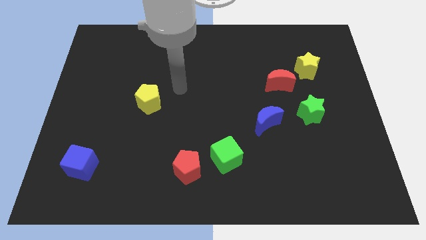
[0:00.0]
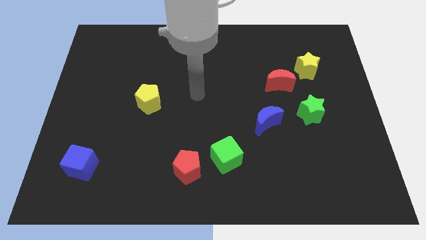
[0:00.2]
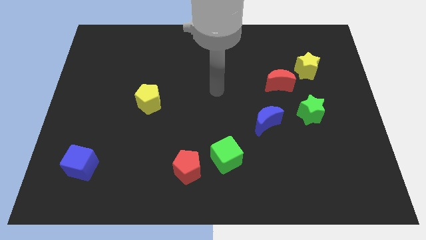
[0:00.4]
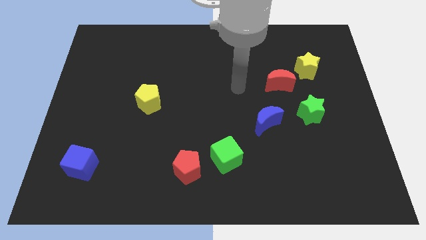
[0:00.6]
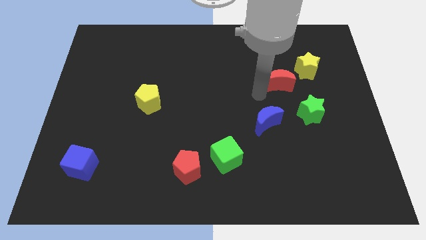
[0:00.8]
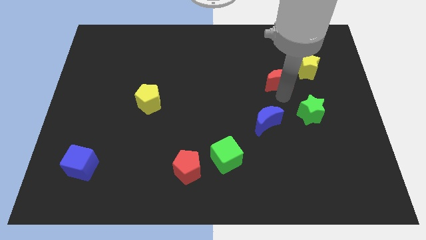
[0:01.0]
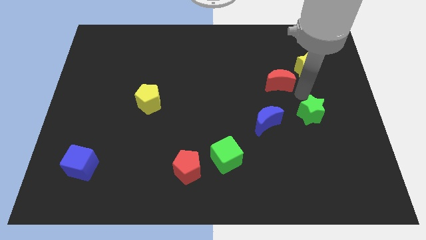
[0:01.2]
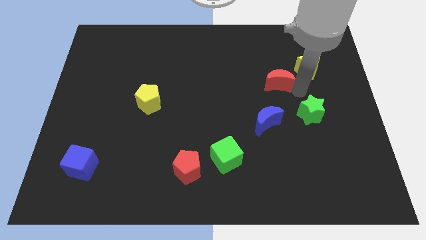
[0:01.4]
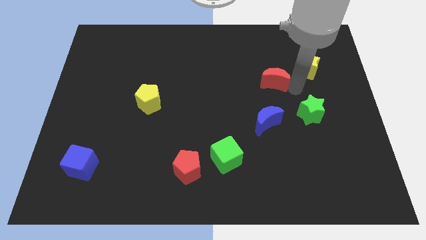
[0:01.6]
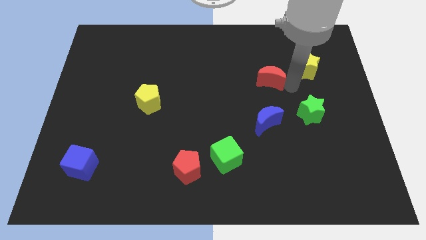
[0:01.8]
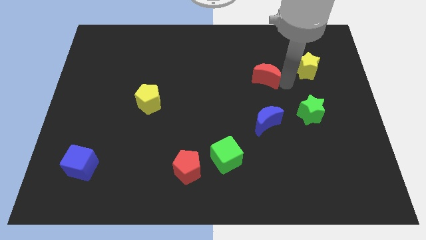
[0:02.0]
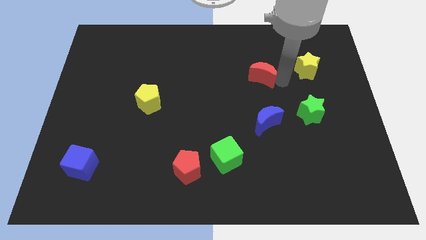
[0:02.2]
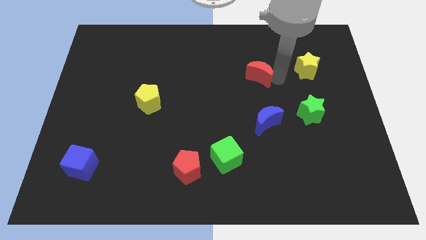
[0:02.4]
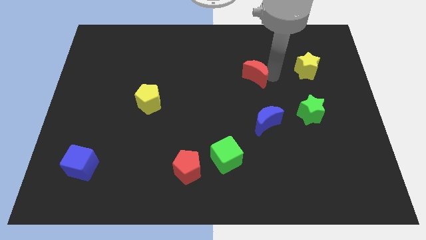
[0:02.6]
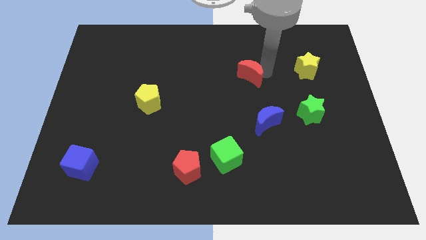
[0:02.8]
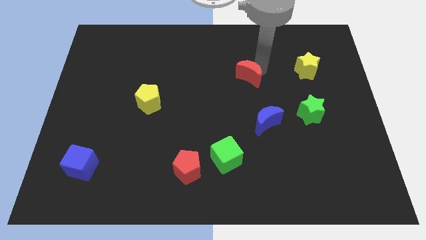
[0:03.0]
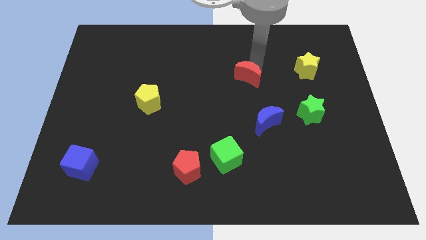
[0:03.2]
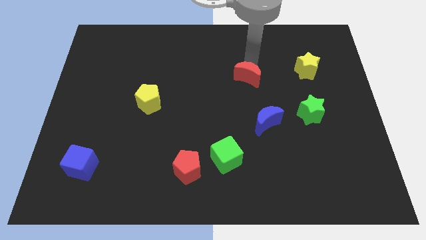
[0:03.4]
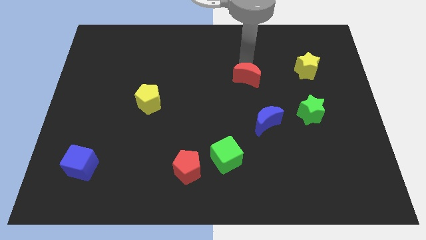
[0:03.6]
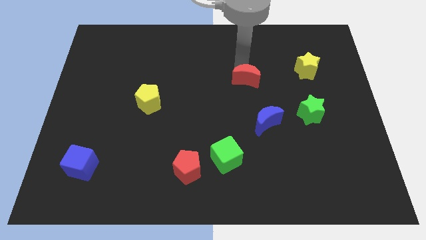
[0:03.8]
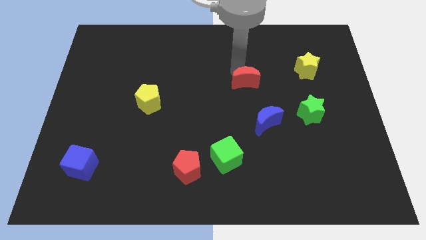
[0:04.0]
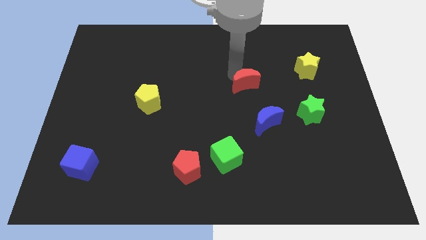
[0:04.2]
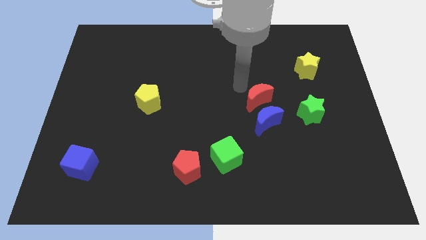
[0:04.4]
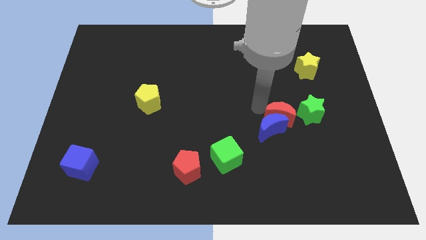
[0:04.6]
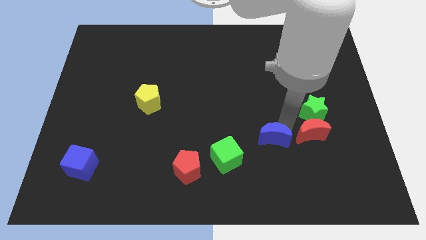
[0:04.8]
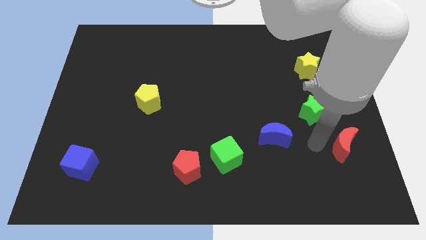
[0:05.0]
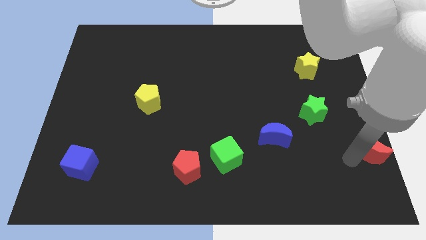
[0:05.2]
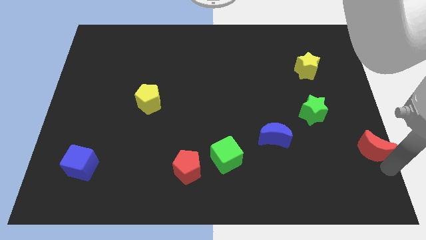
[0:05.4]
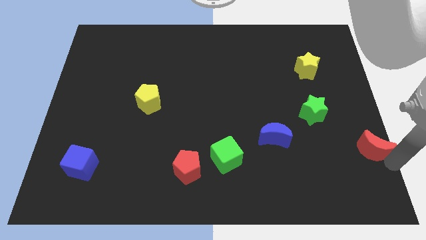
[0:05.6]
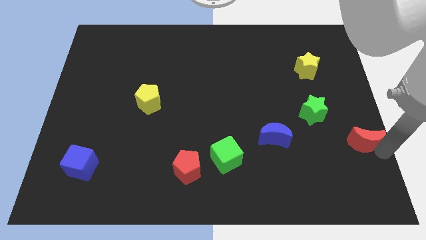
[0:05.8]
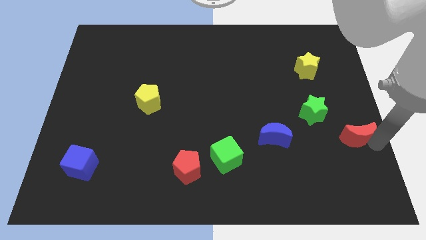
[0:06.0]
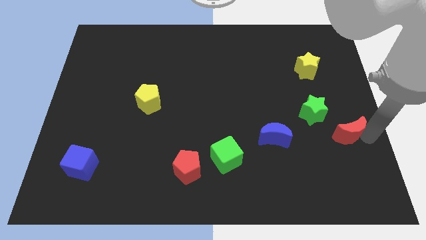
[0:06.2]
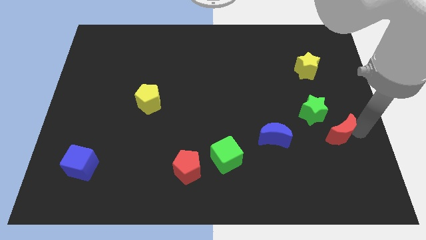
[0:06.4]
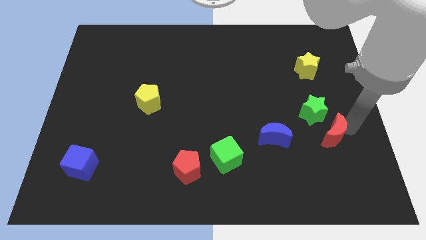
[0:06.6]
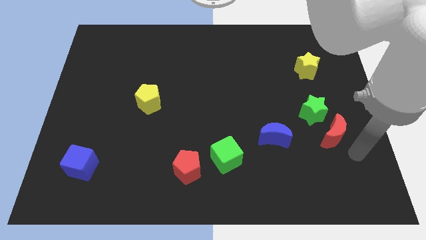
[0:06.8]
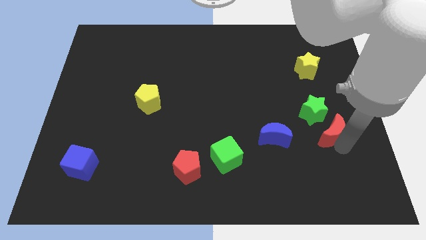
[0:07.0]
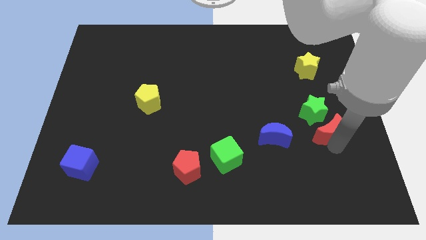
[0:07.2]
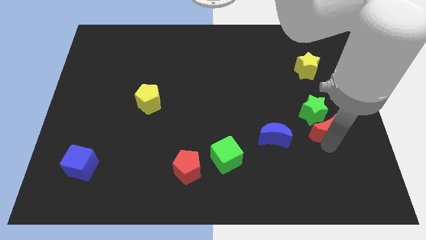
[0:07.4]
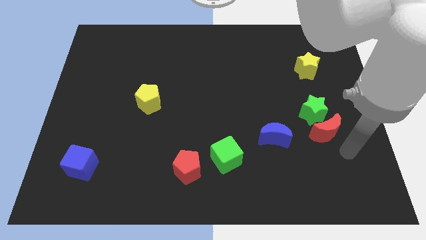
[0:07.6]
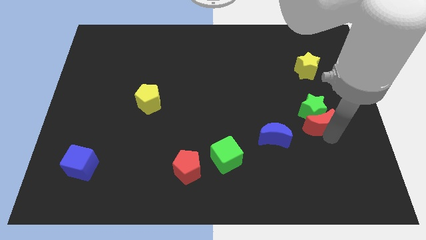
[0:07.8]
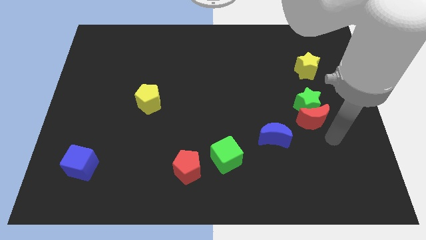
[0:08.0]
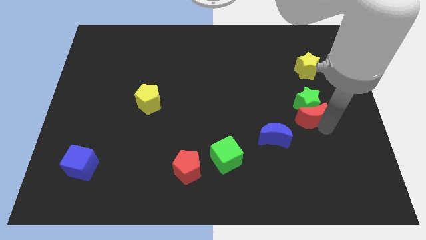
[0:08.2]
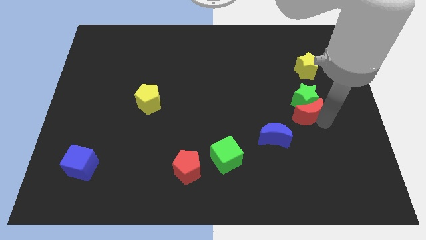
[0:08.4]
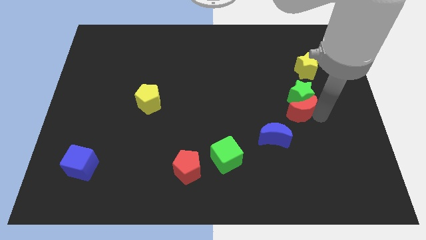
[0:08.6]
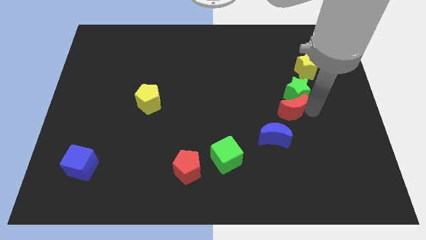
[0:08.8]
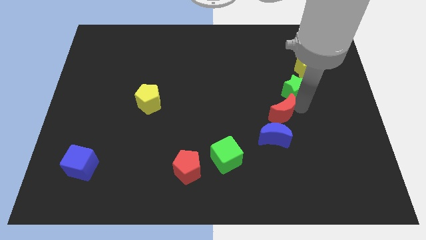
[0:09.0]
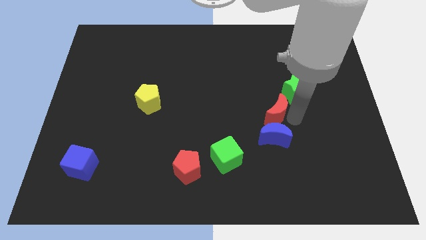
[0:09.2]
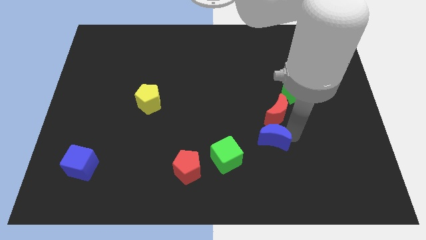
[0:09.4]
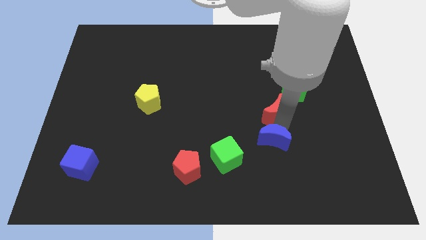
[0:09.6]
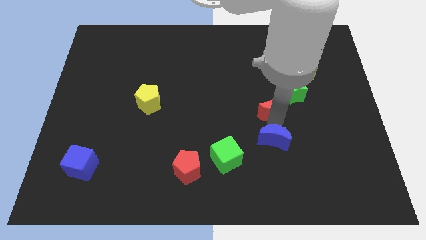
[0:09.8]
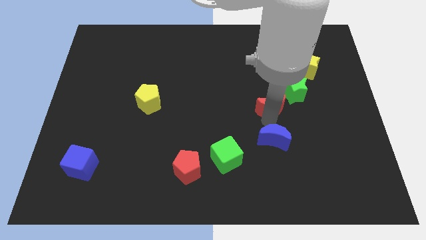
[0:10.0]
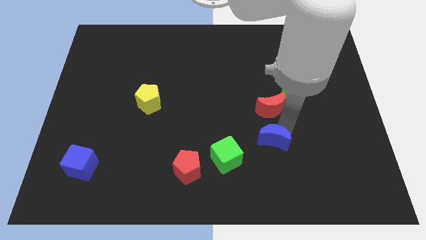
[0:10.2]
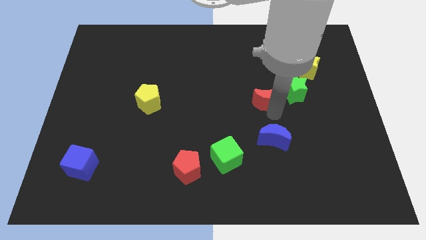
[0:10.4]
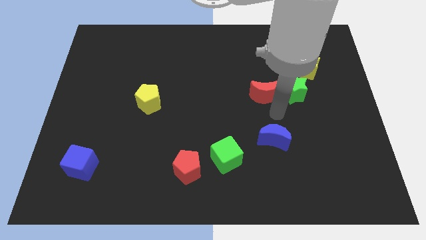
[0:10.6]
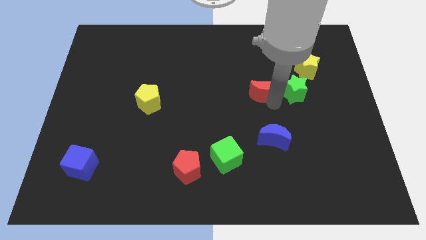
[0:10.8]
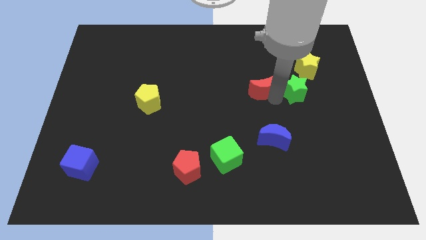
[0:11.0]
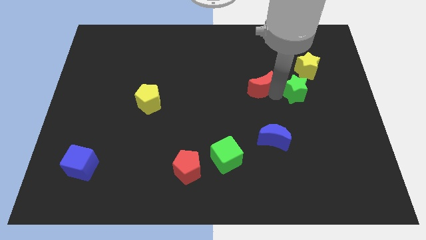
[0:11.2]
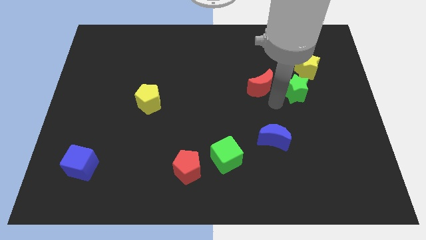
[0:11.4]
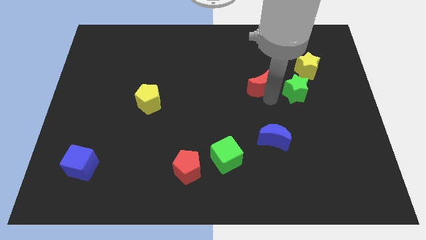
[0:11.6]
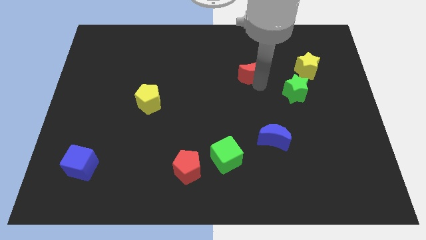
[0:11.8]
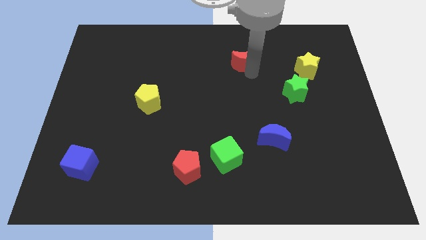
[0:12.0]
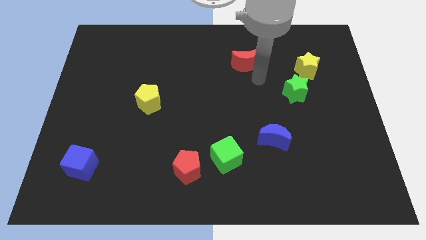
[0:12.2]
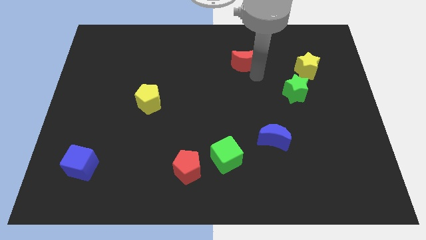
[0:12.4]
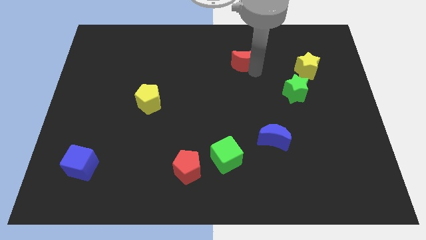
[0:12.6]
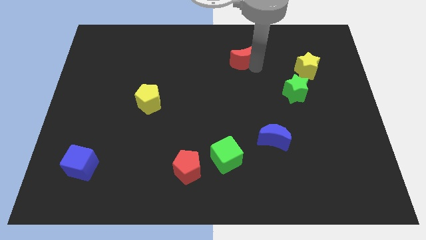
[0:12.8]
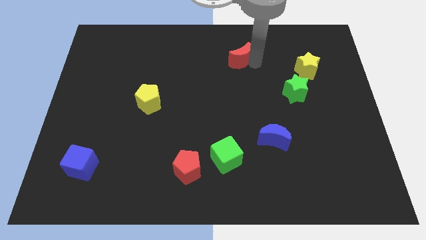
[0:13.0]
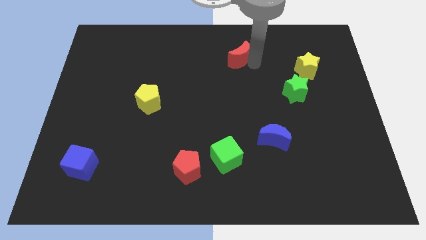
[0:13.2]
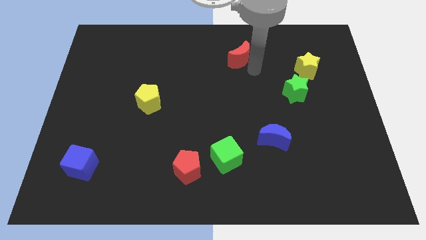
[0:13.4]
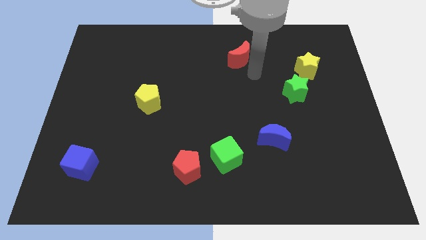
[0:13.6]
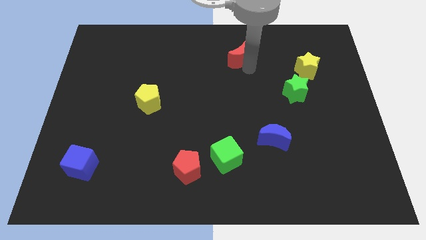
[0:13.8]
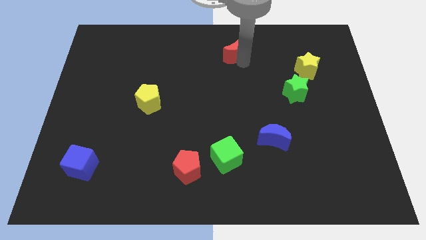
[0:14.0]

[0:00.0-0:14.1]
push the red moon to the towards your base
